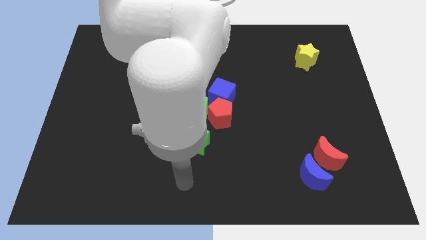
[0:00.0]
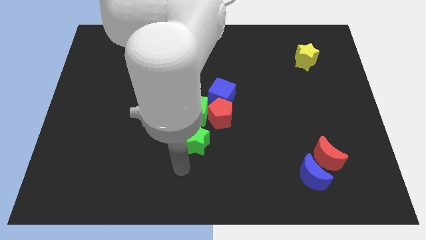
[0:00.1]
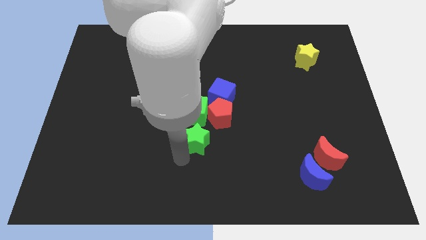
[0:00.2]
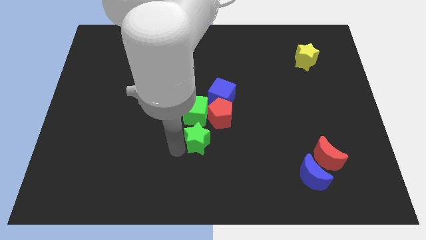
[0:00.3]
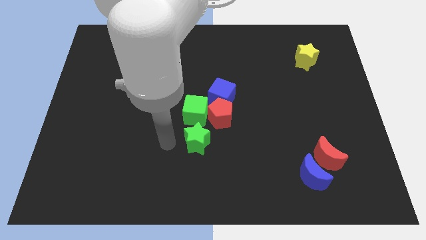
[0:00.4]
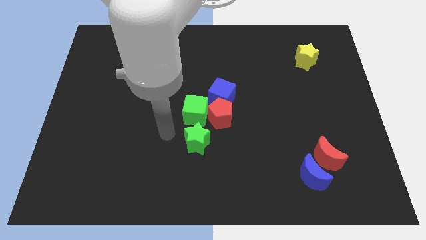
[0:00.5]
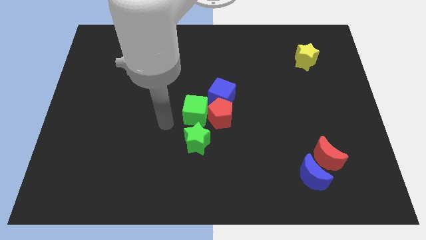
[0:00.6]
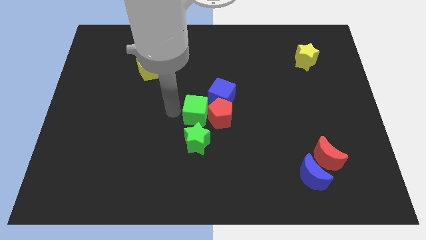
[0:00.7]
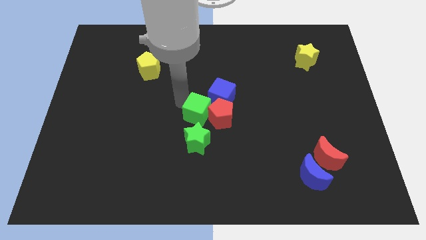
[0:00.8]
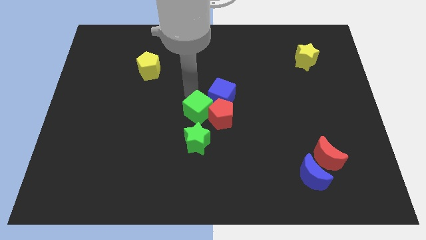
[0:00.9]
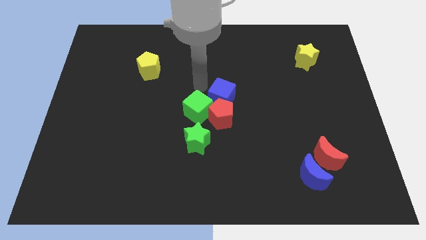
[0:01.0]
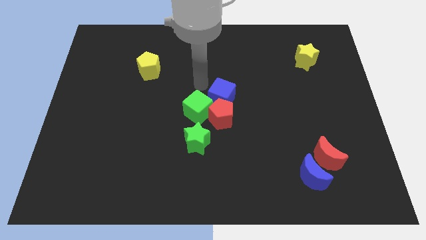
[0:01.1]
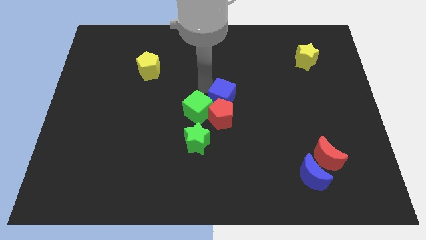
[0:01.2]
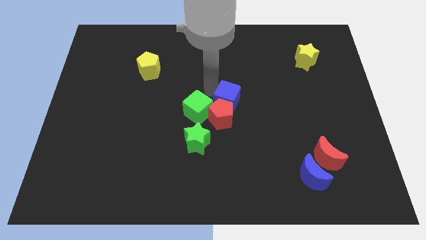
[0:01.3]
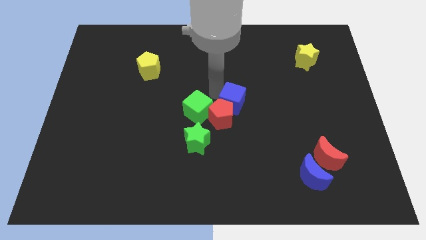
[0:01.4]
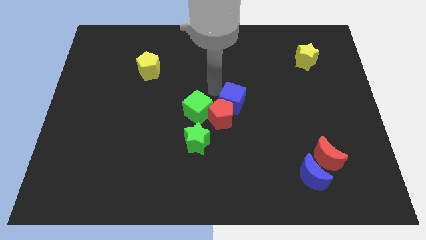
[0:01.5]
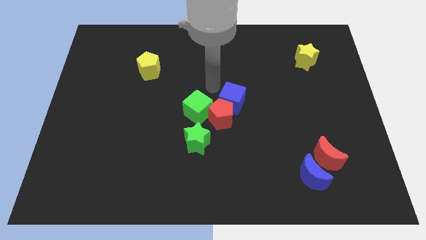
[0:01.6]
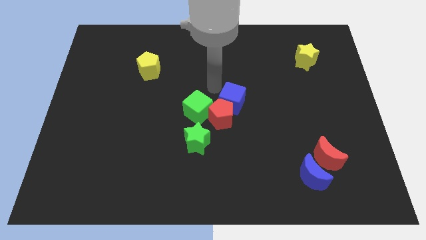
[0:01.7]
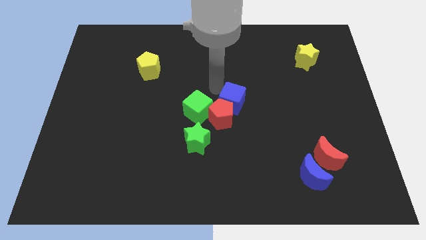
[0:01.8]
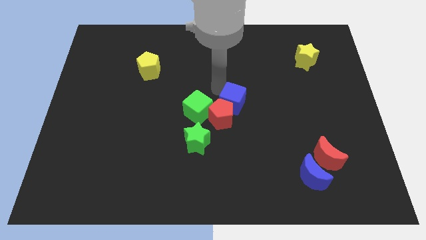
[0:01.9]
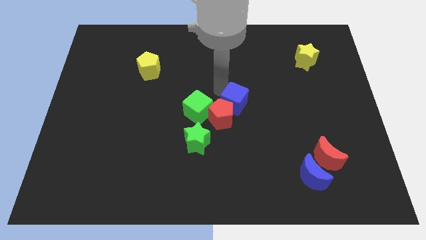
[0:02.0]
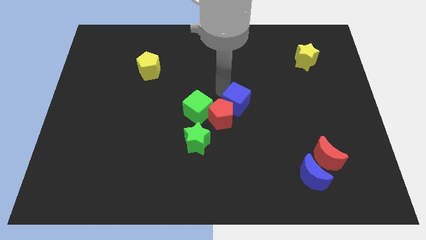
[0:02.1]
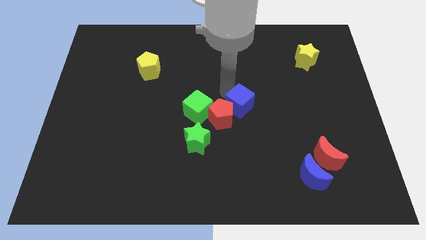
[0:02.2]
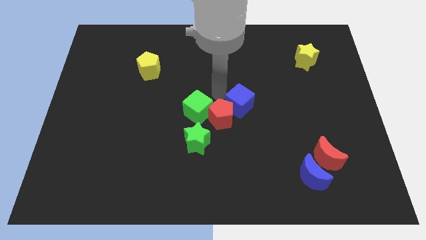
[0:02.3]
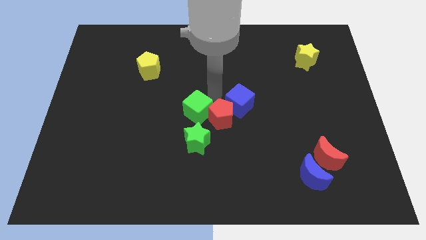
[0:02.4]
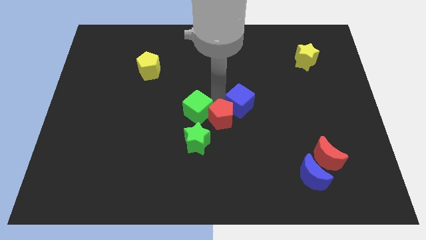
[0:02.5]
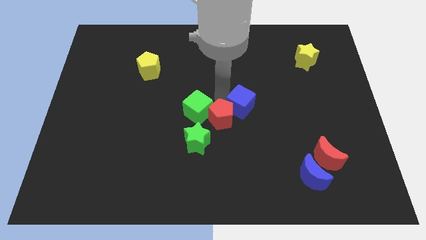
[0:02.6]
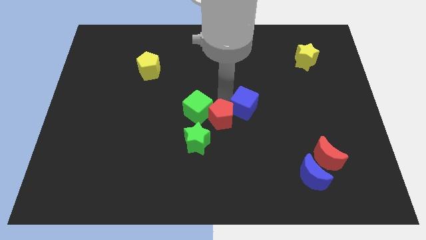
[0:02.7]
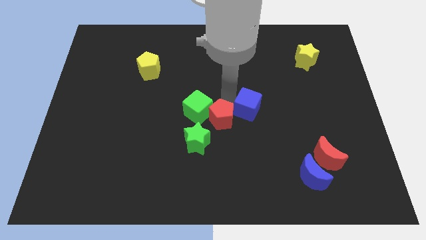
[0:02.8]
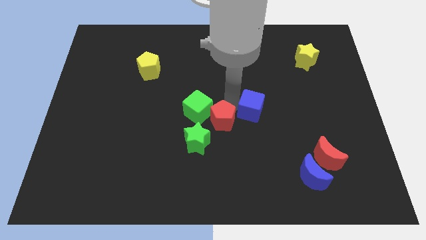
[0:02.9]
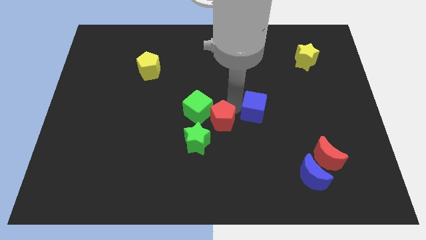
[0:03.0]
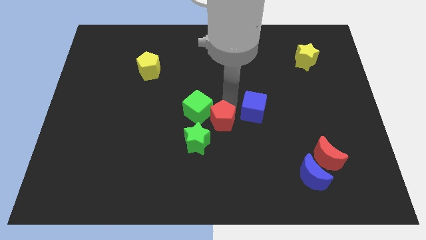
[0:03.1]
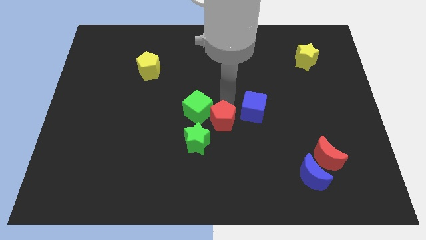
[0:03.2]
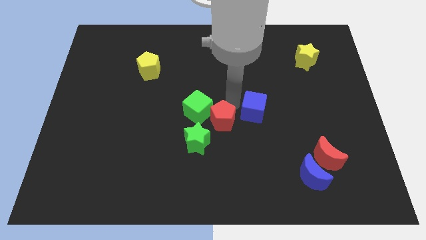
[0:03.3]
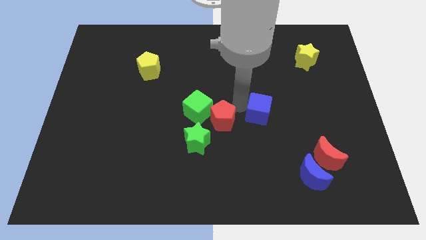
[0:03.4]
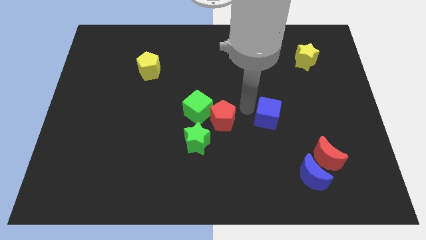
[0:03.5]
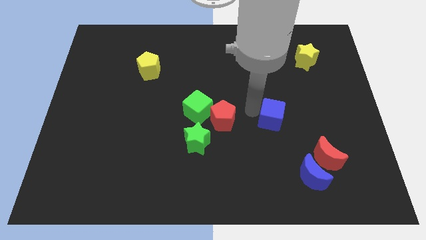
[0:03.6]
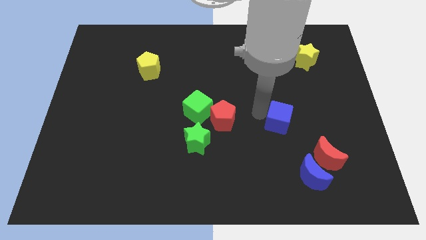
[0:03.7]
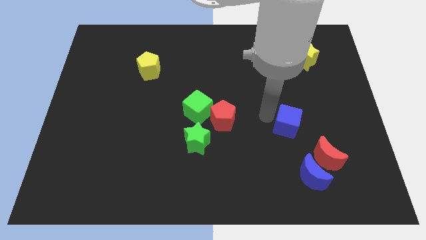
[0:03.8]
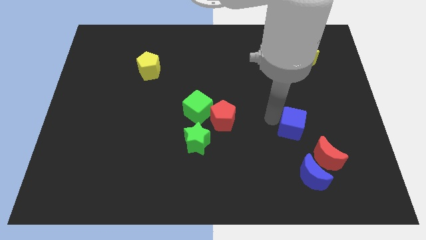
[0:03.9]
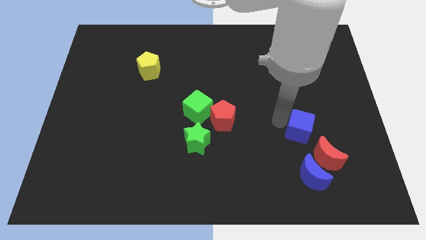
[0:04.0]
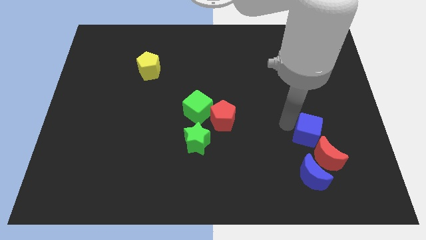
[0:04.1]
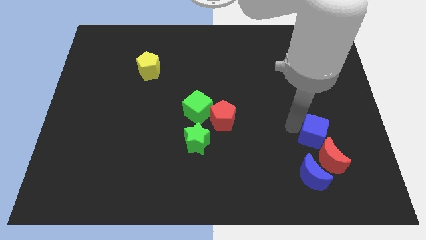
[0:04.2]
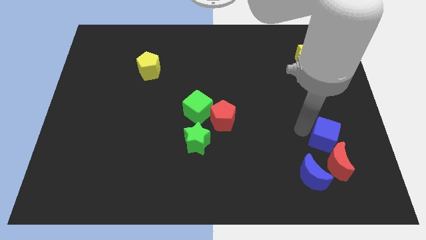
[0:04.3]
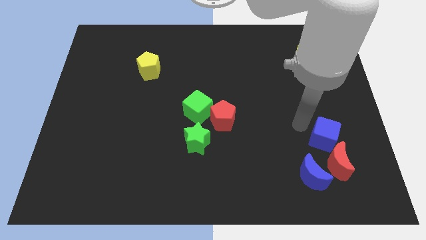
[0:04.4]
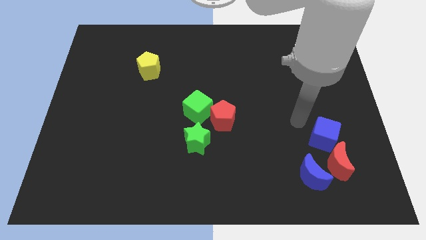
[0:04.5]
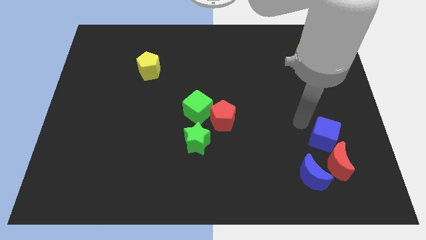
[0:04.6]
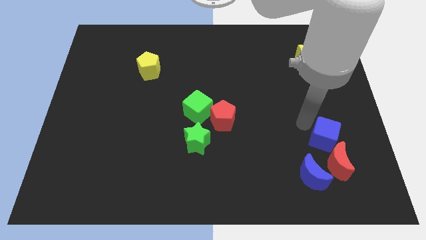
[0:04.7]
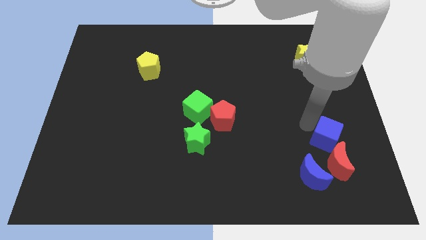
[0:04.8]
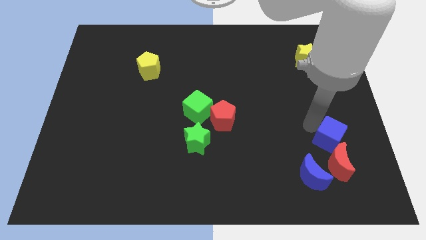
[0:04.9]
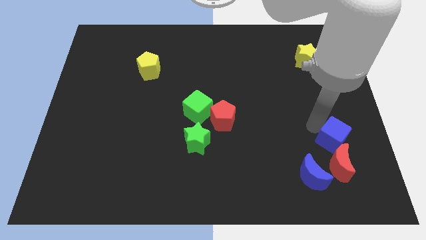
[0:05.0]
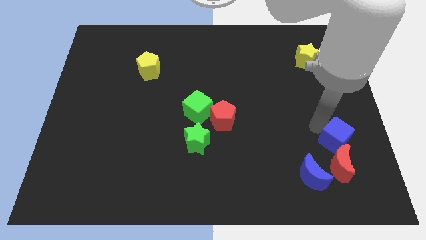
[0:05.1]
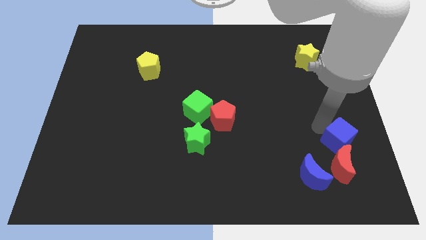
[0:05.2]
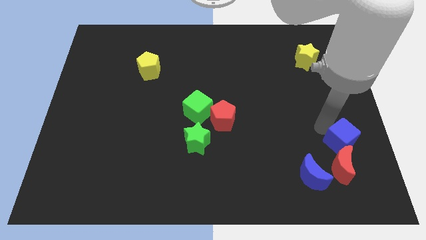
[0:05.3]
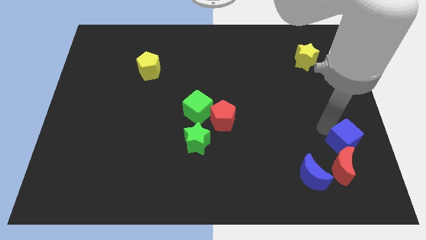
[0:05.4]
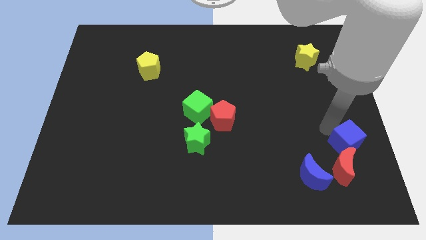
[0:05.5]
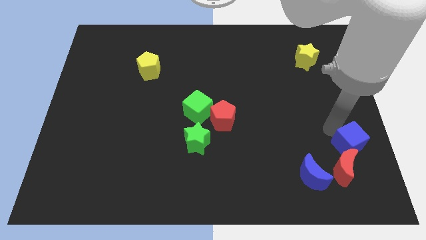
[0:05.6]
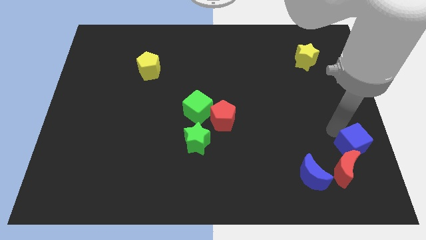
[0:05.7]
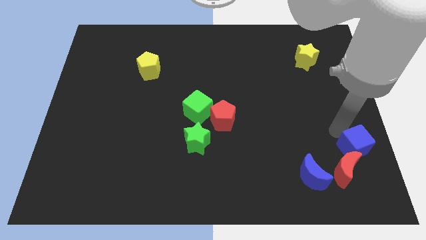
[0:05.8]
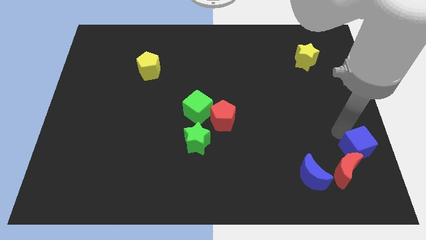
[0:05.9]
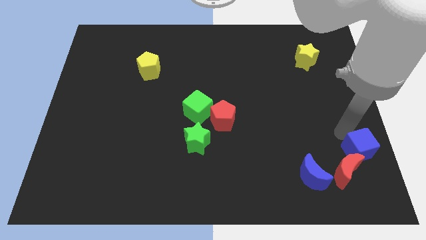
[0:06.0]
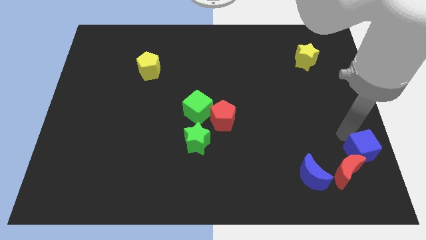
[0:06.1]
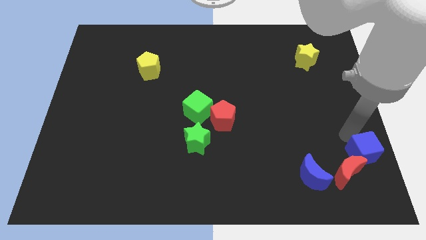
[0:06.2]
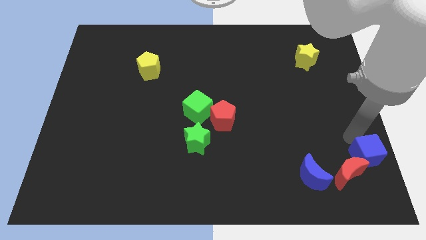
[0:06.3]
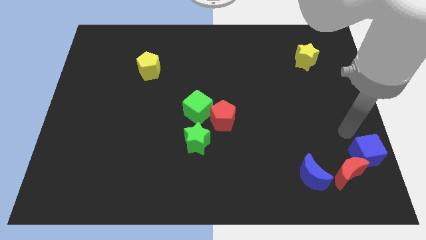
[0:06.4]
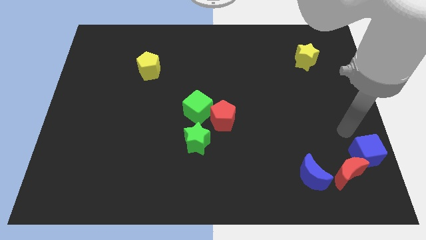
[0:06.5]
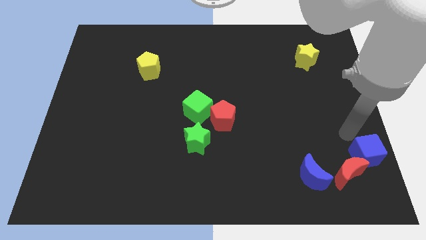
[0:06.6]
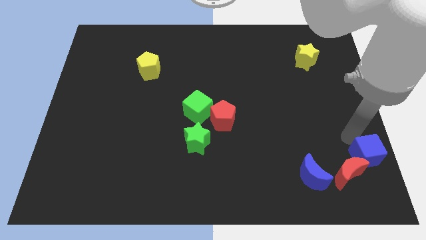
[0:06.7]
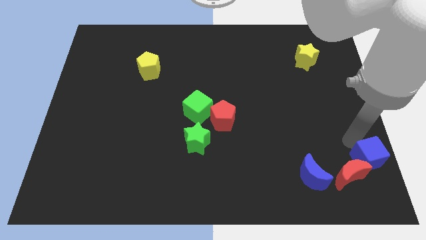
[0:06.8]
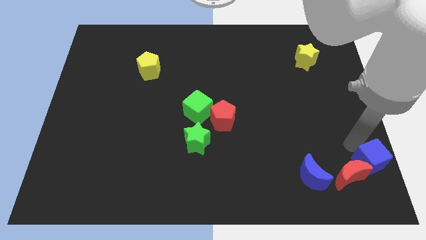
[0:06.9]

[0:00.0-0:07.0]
put the blue cube to the bottom right of the board

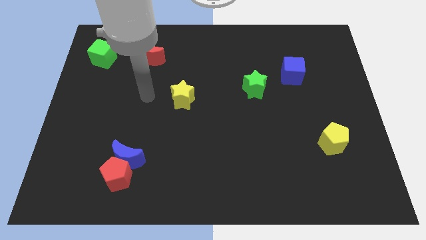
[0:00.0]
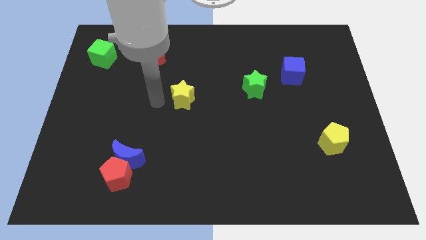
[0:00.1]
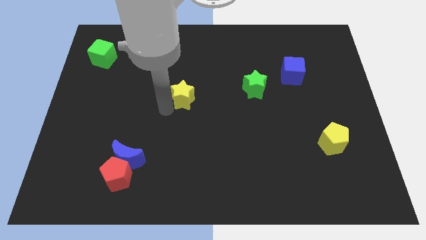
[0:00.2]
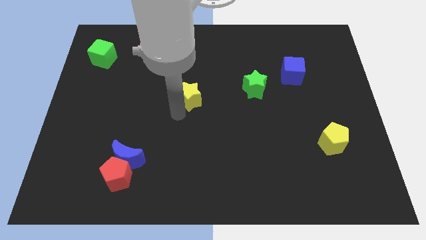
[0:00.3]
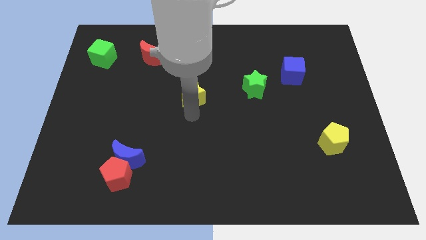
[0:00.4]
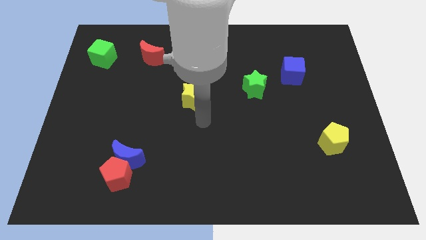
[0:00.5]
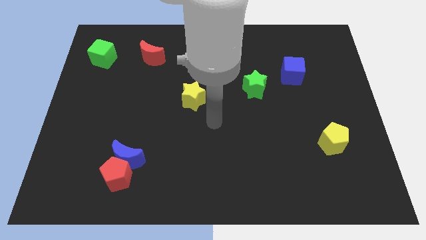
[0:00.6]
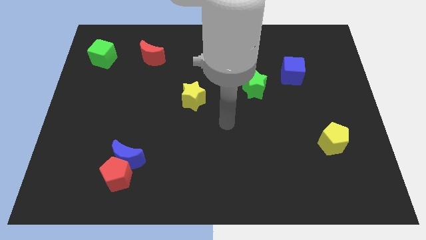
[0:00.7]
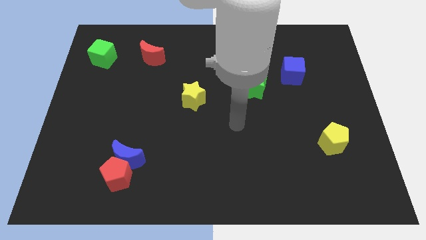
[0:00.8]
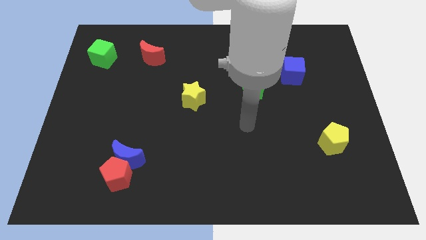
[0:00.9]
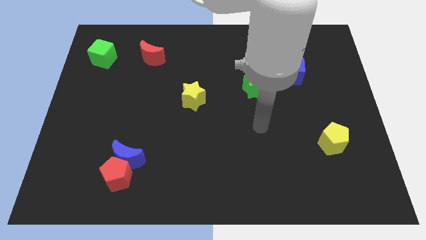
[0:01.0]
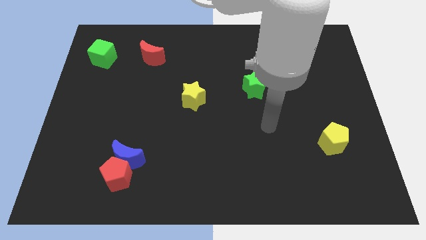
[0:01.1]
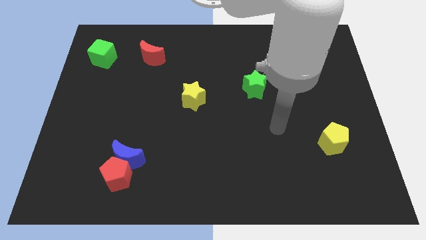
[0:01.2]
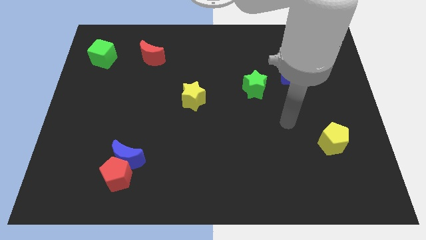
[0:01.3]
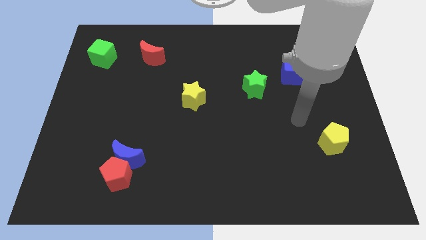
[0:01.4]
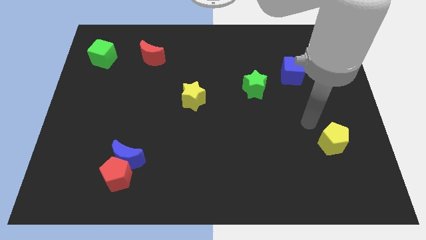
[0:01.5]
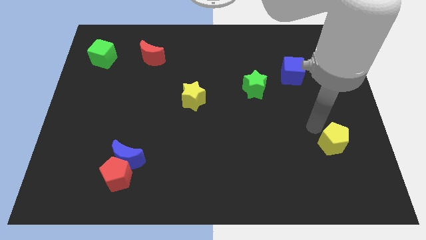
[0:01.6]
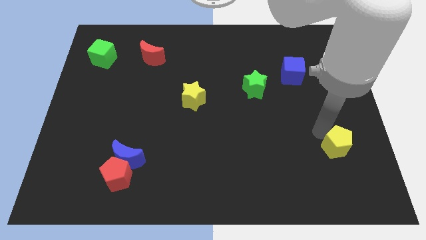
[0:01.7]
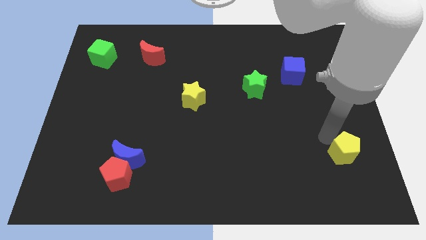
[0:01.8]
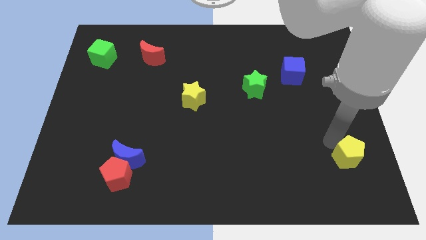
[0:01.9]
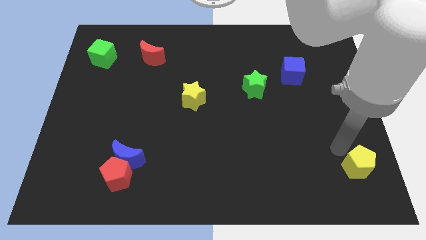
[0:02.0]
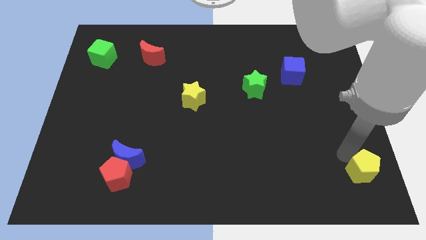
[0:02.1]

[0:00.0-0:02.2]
push the yellow pentagon to the bottom right
